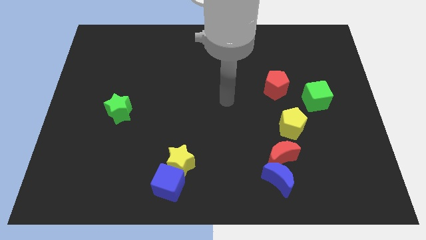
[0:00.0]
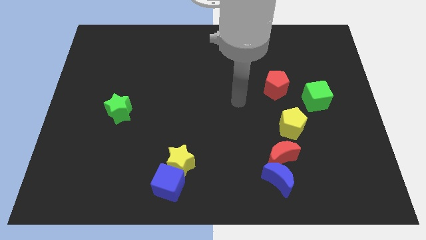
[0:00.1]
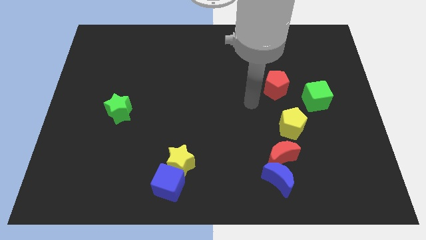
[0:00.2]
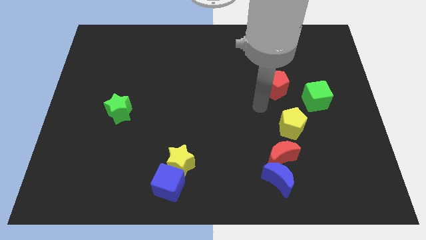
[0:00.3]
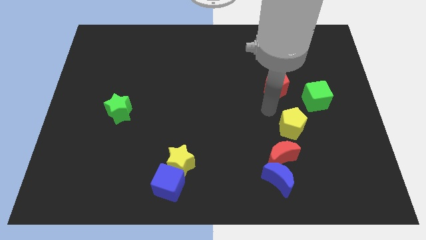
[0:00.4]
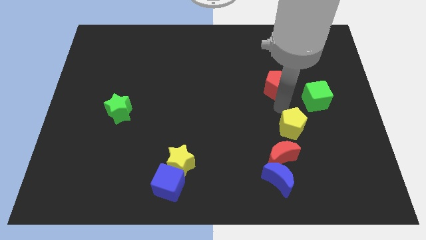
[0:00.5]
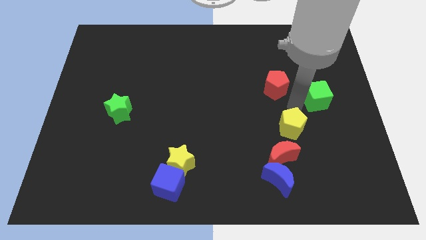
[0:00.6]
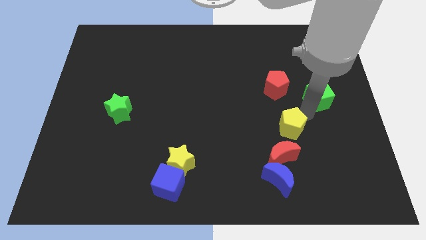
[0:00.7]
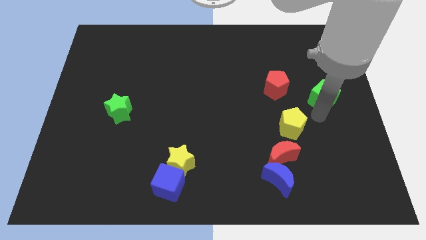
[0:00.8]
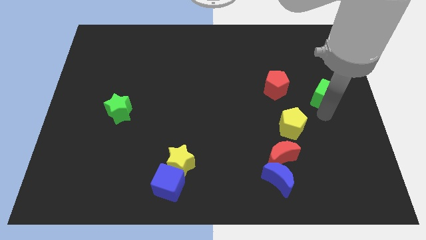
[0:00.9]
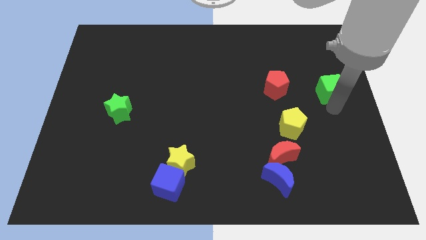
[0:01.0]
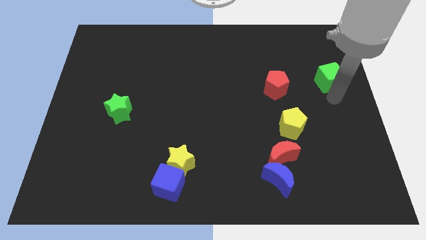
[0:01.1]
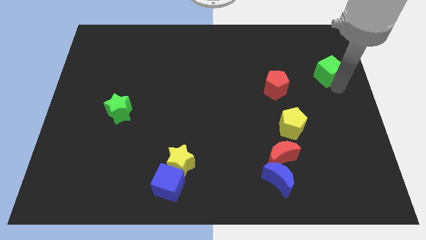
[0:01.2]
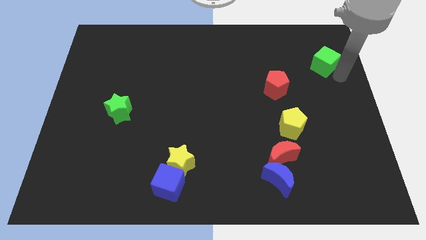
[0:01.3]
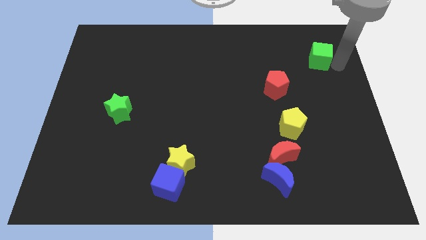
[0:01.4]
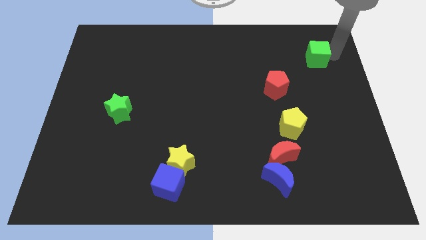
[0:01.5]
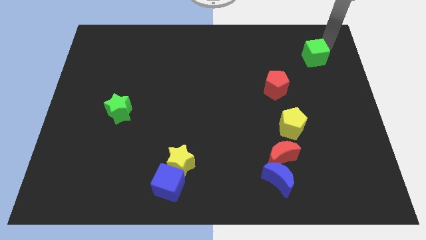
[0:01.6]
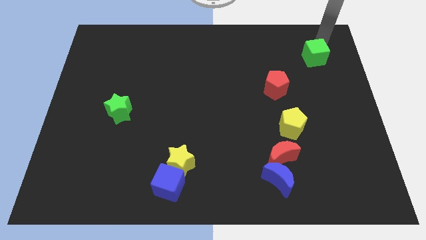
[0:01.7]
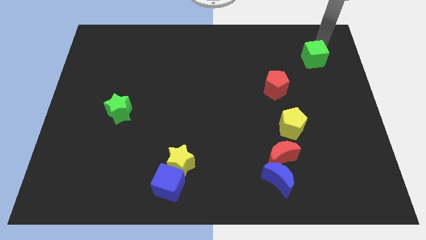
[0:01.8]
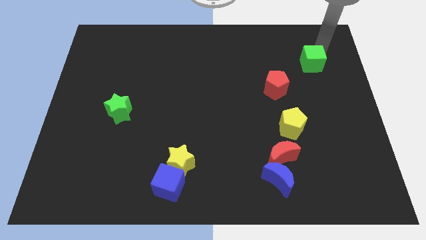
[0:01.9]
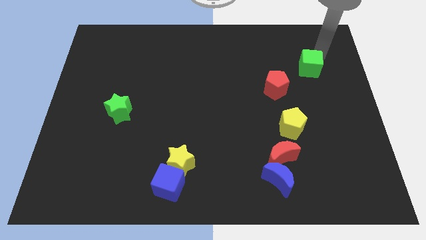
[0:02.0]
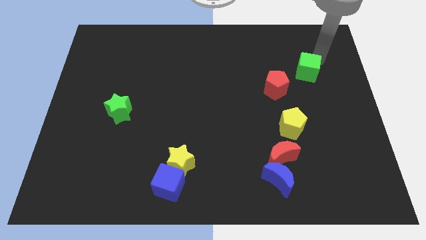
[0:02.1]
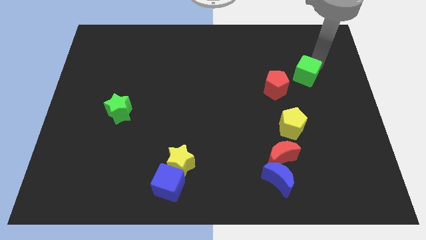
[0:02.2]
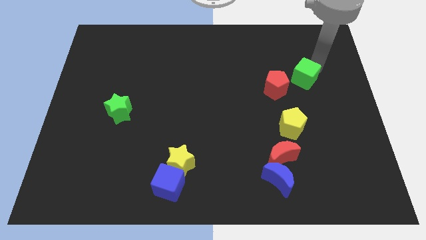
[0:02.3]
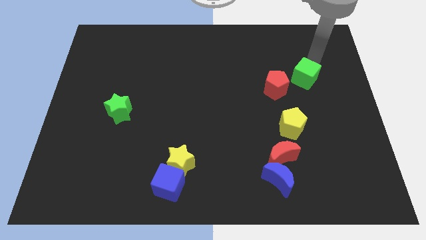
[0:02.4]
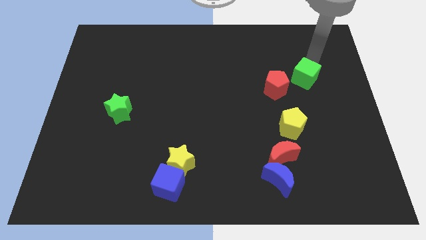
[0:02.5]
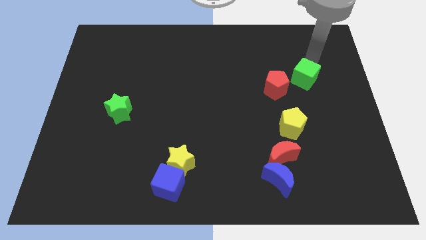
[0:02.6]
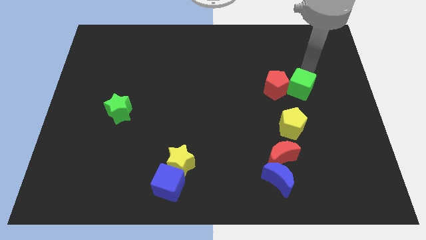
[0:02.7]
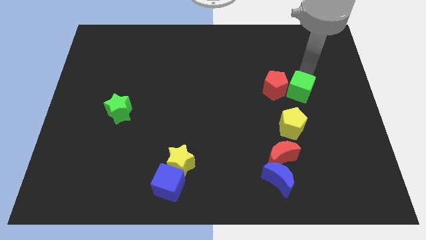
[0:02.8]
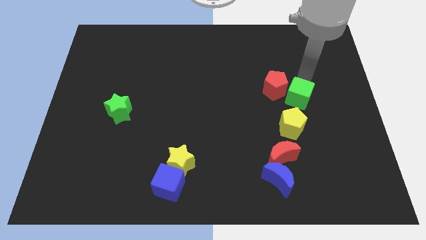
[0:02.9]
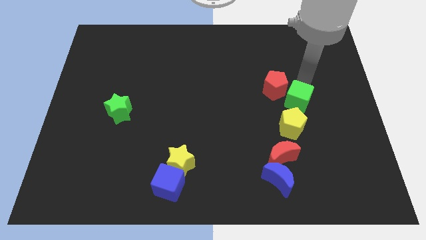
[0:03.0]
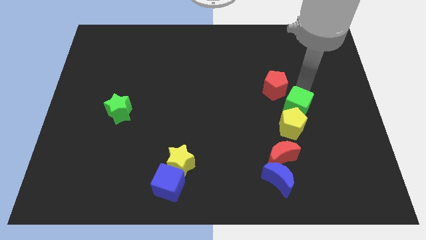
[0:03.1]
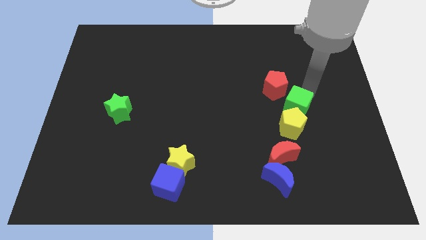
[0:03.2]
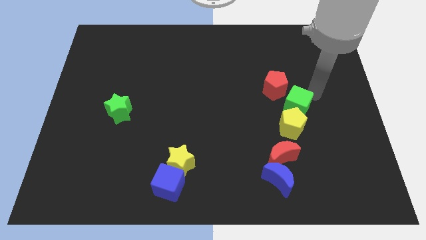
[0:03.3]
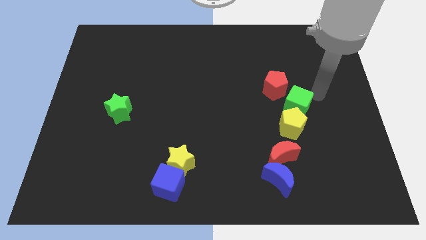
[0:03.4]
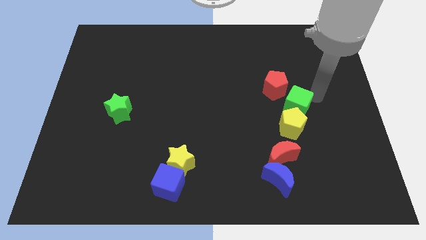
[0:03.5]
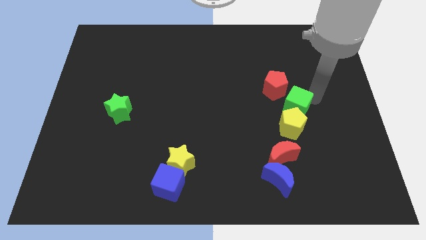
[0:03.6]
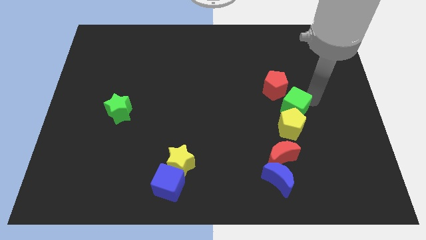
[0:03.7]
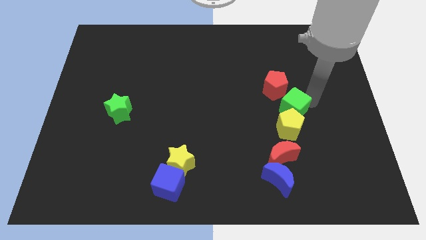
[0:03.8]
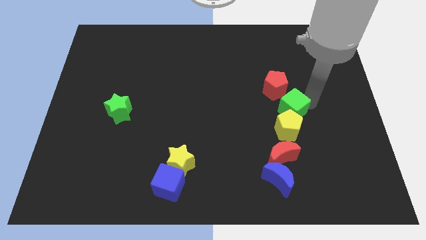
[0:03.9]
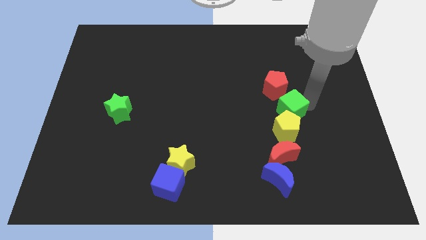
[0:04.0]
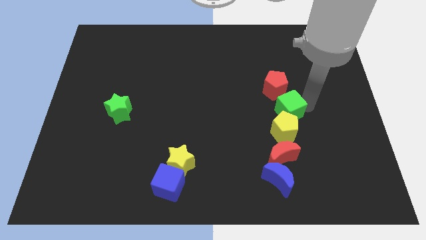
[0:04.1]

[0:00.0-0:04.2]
slightly move the green cube down and to the left

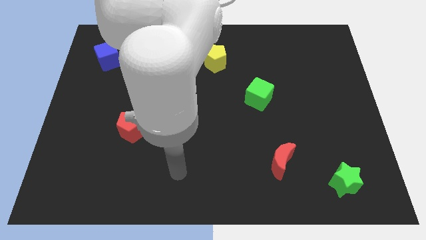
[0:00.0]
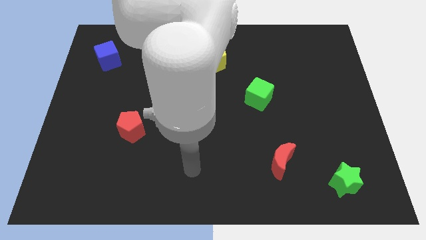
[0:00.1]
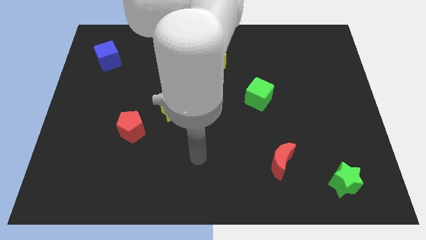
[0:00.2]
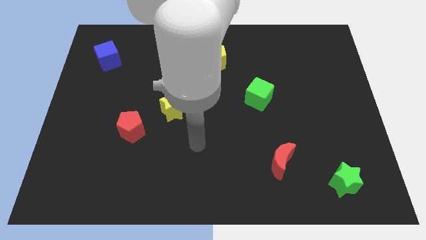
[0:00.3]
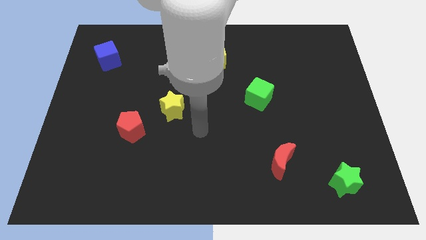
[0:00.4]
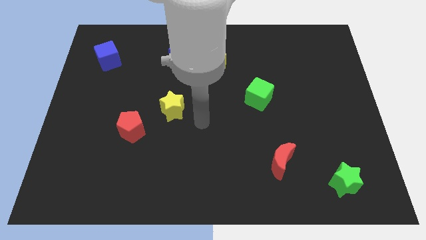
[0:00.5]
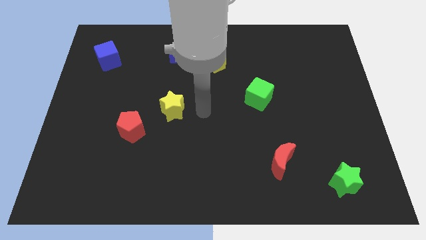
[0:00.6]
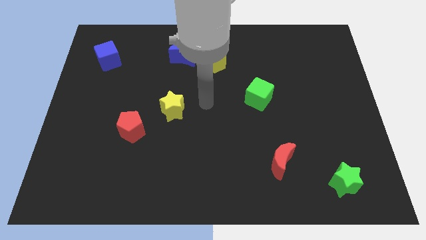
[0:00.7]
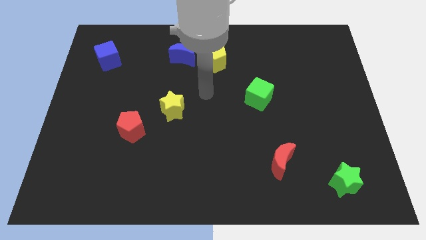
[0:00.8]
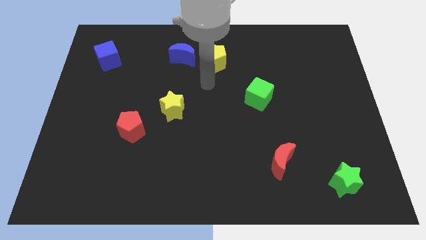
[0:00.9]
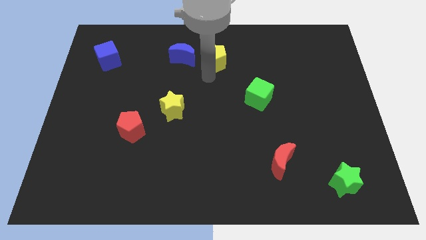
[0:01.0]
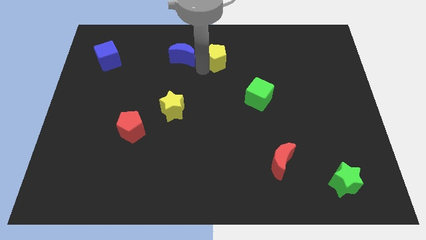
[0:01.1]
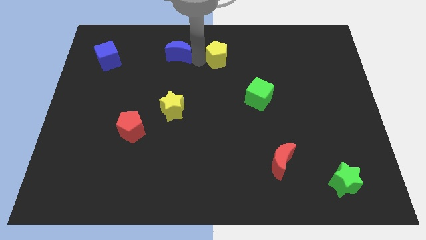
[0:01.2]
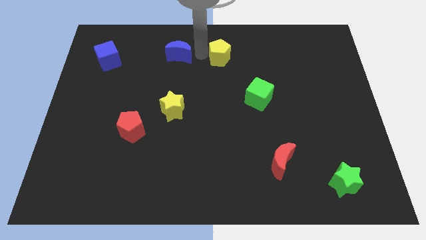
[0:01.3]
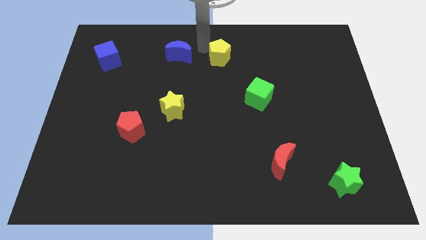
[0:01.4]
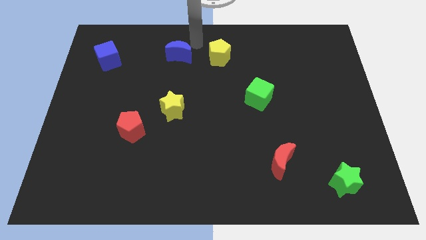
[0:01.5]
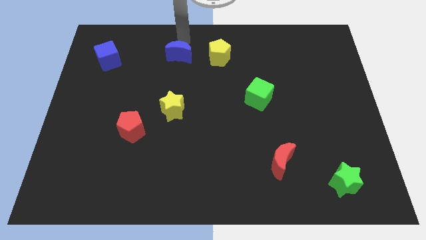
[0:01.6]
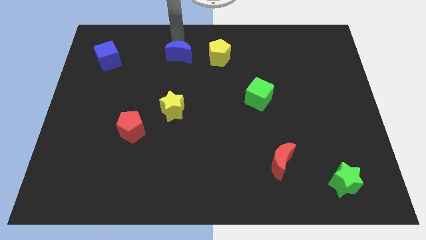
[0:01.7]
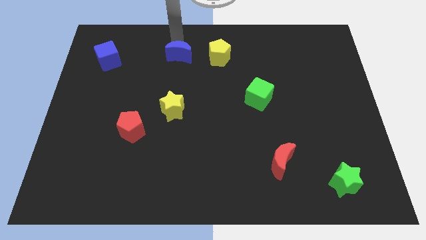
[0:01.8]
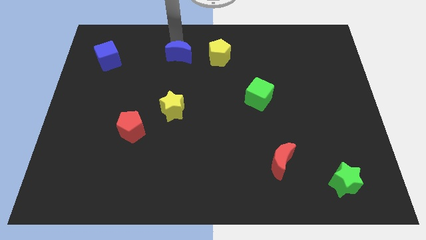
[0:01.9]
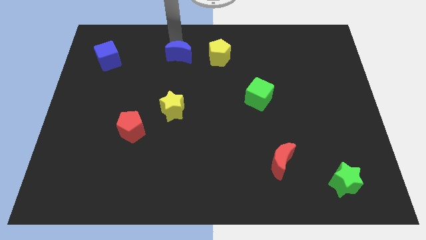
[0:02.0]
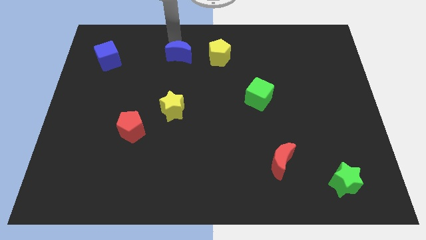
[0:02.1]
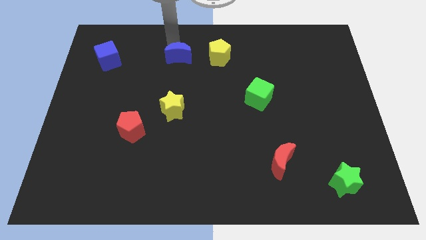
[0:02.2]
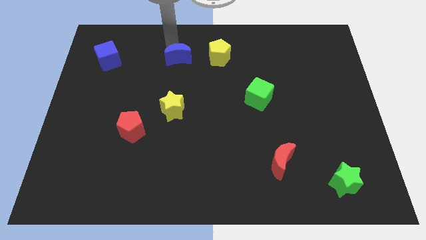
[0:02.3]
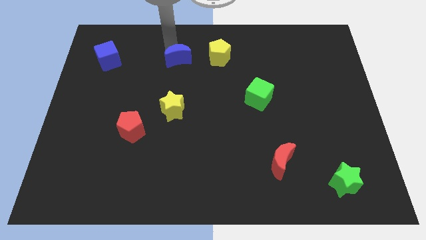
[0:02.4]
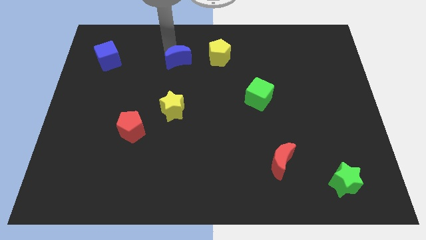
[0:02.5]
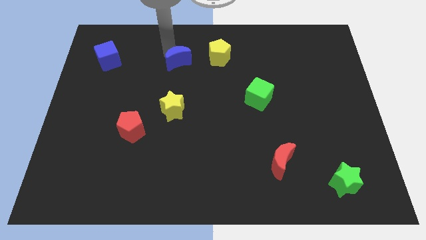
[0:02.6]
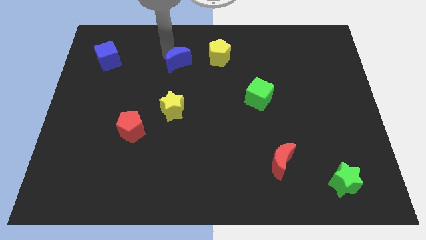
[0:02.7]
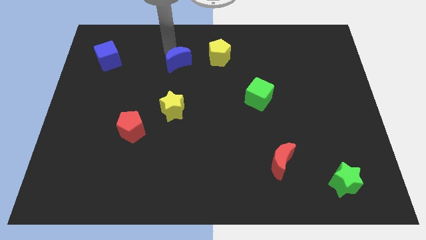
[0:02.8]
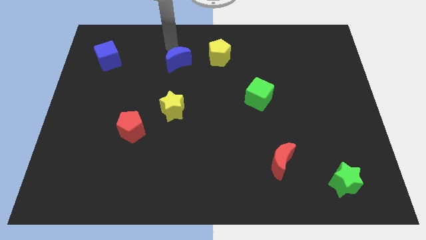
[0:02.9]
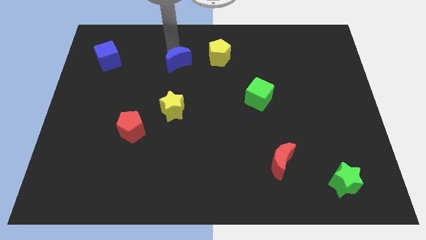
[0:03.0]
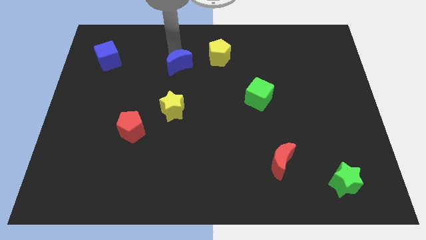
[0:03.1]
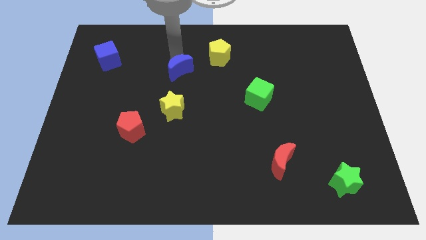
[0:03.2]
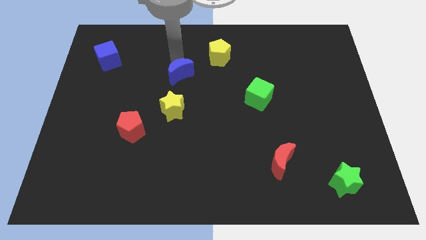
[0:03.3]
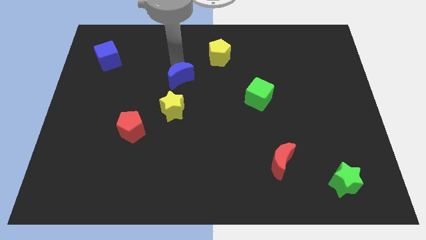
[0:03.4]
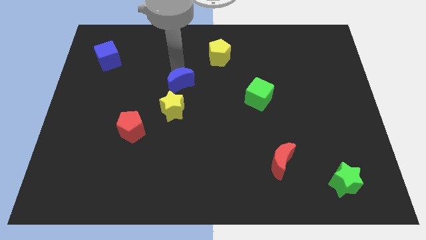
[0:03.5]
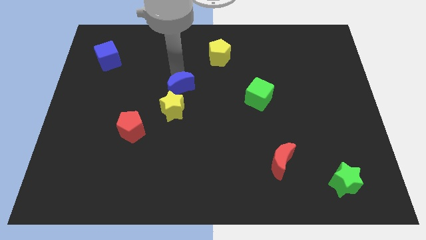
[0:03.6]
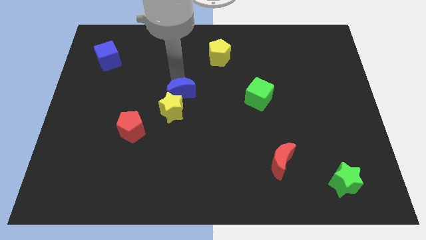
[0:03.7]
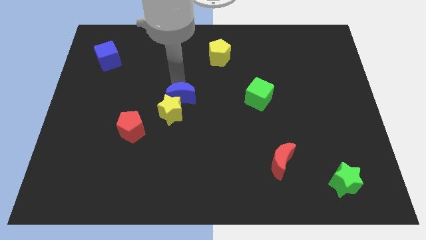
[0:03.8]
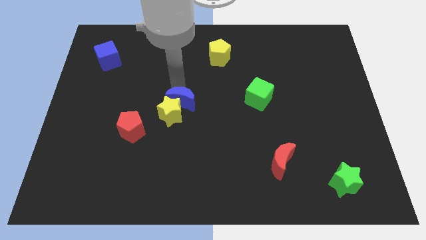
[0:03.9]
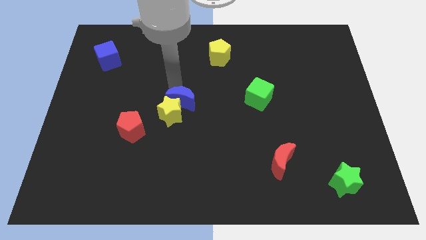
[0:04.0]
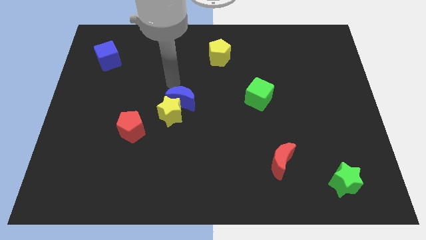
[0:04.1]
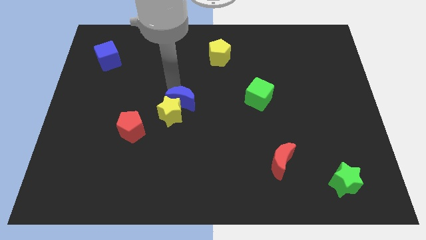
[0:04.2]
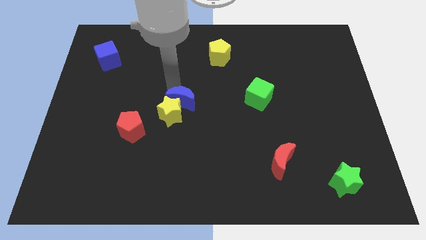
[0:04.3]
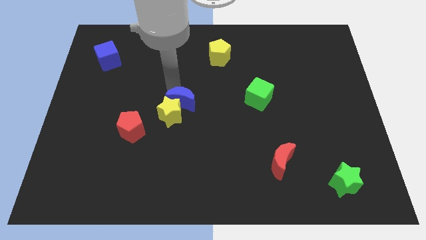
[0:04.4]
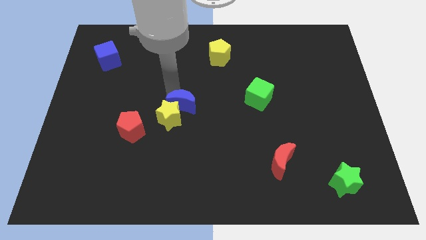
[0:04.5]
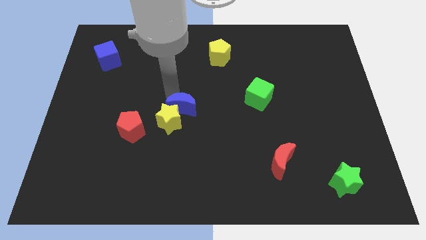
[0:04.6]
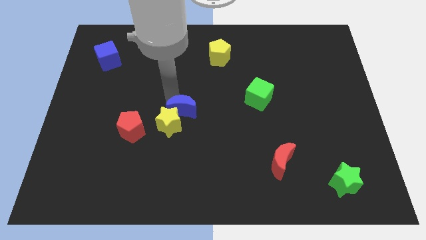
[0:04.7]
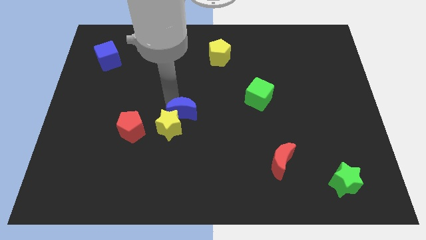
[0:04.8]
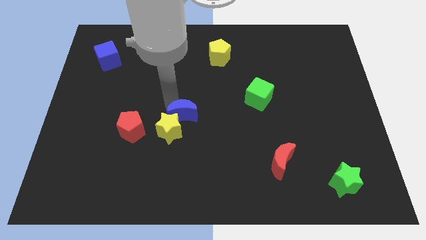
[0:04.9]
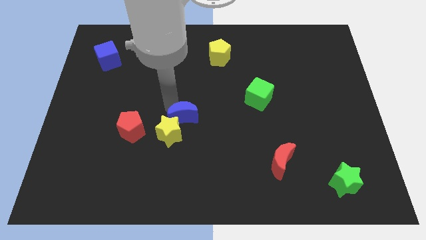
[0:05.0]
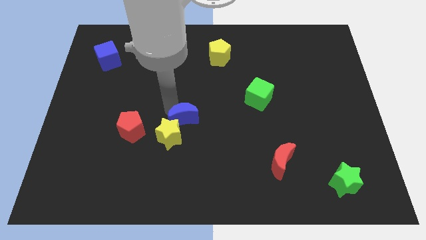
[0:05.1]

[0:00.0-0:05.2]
slide the blue moon down
